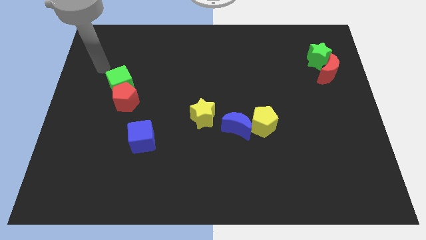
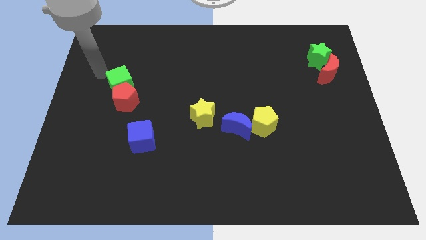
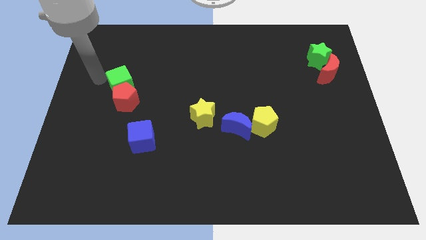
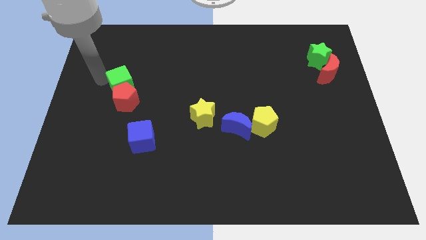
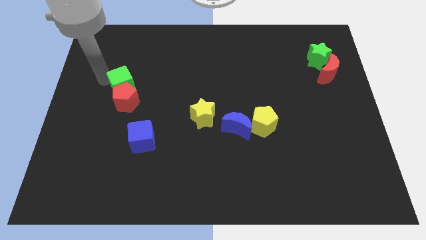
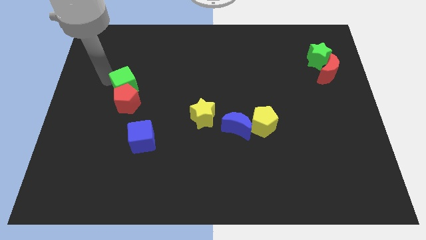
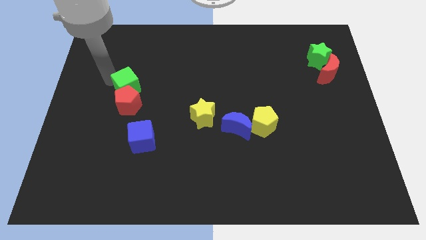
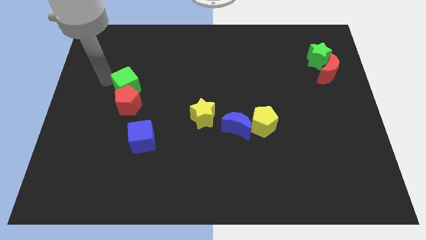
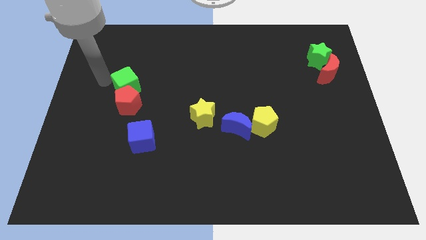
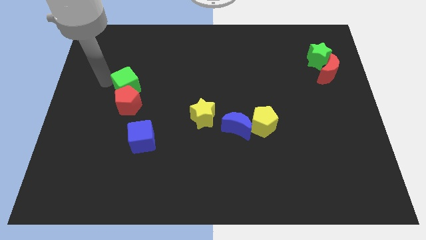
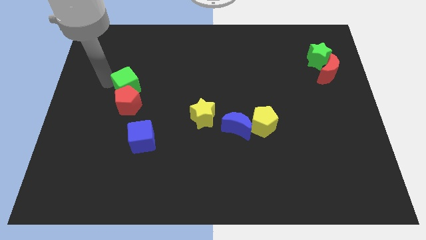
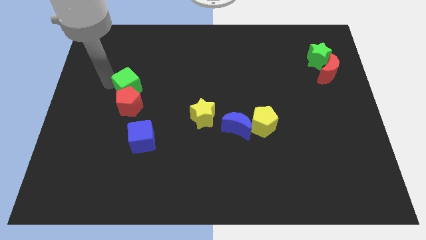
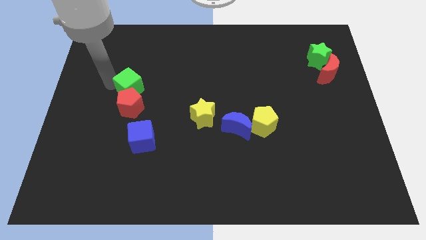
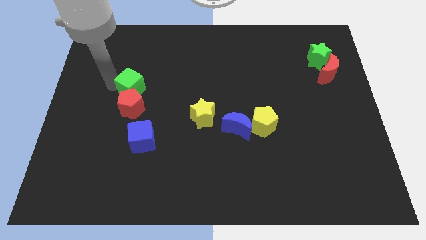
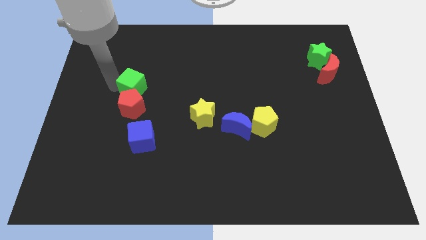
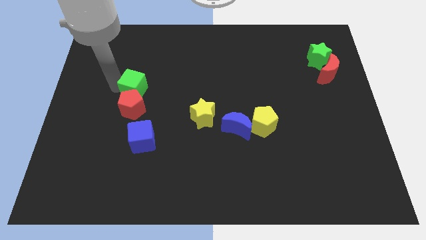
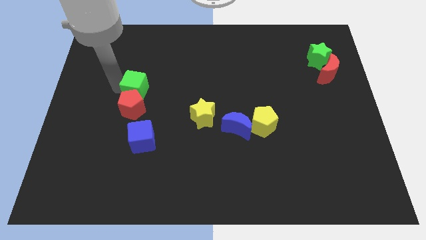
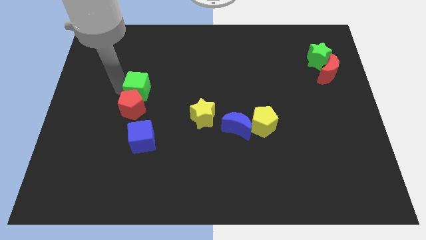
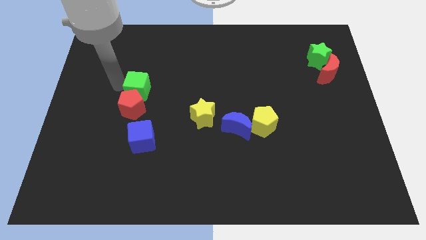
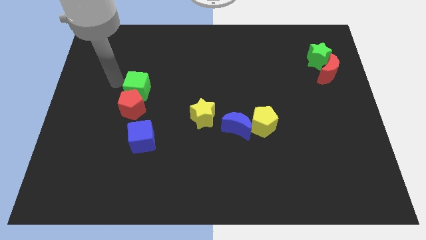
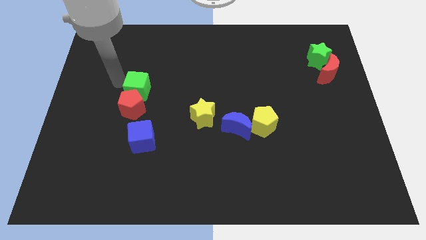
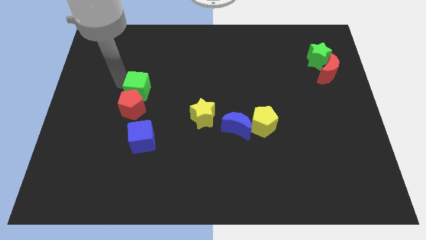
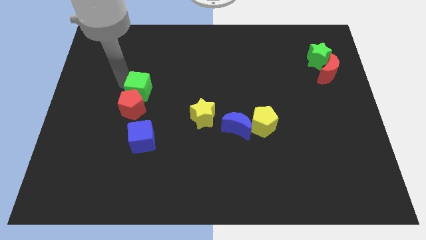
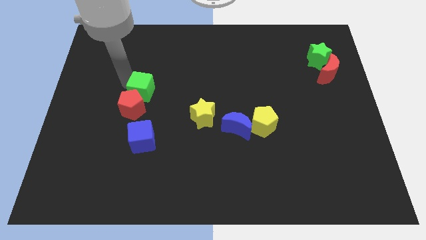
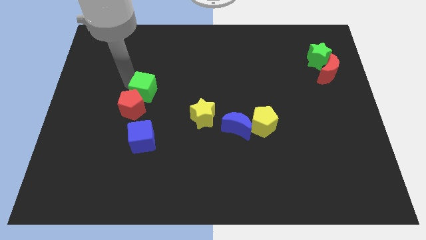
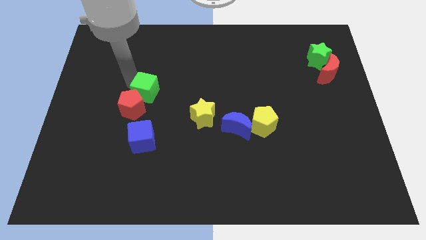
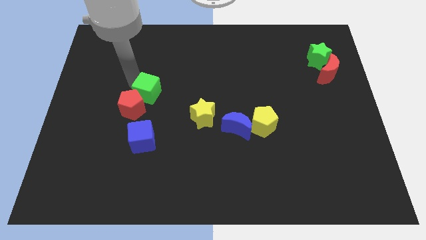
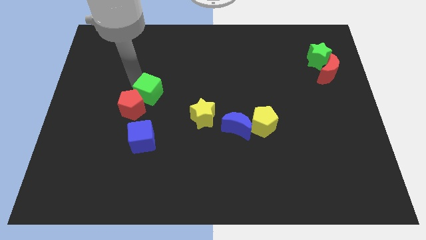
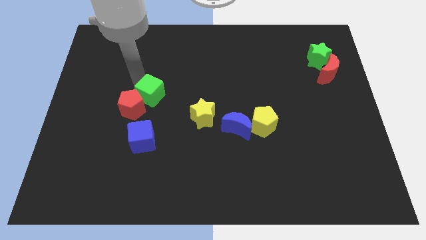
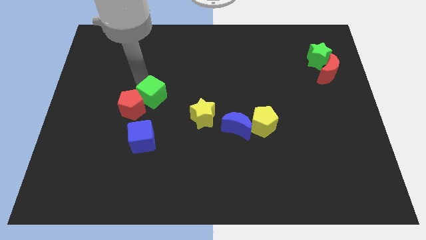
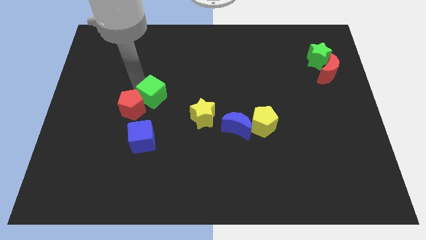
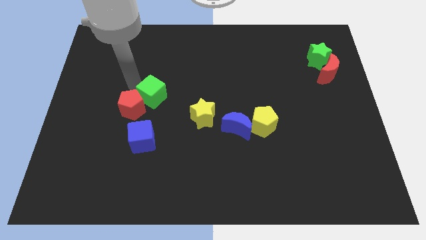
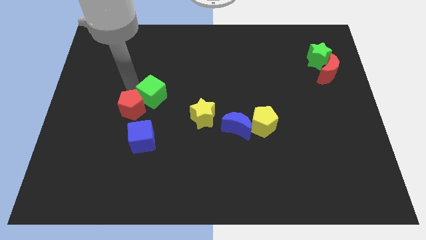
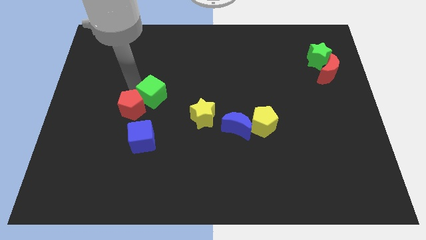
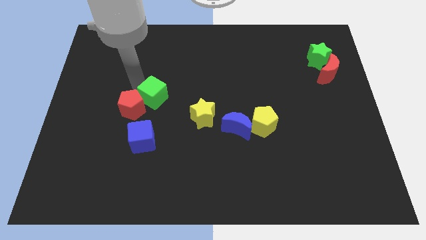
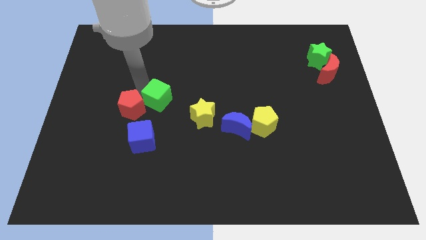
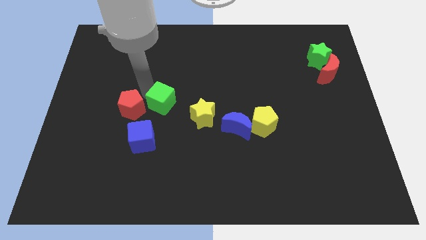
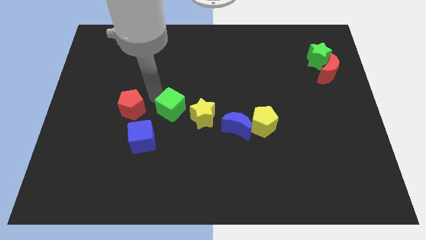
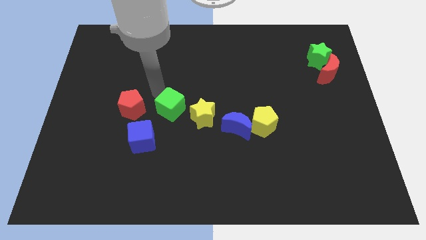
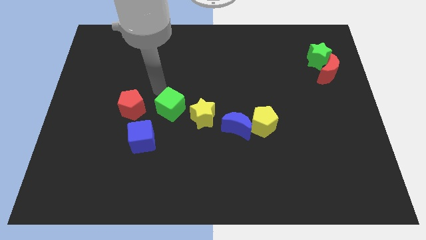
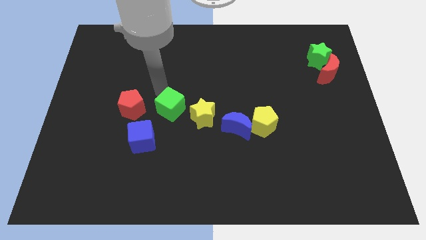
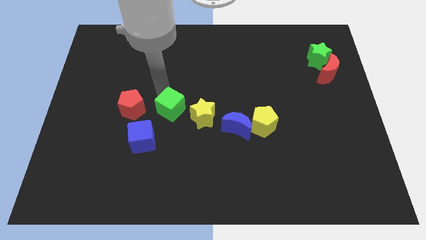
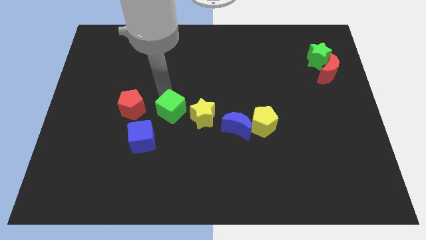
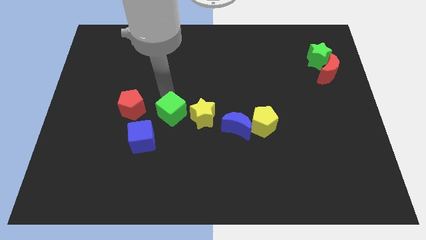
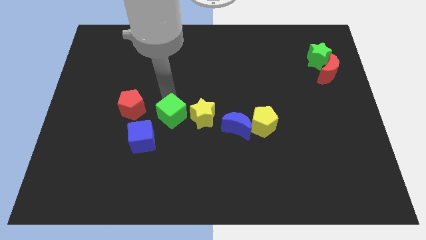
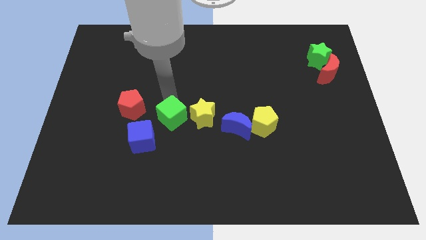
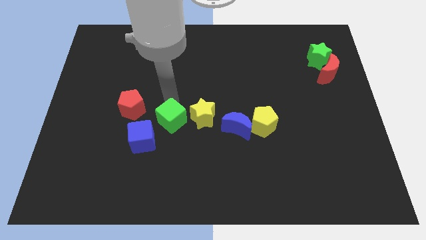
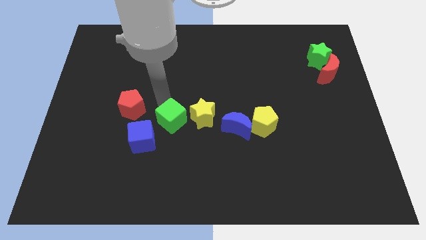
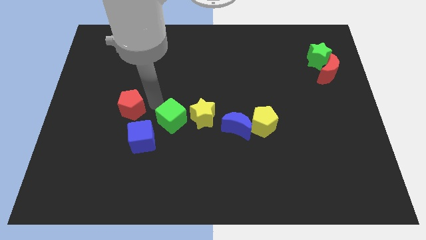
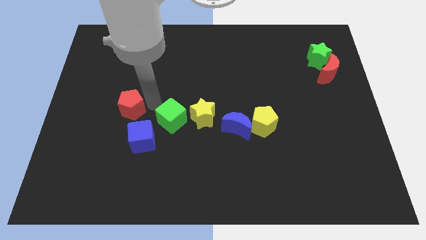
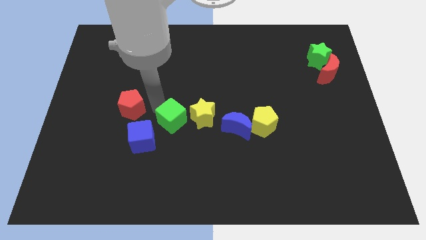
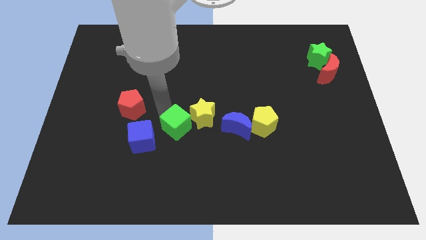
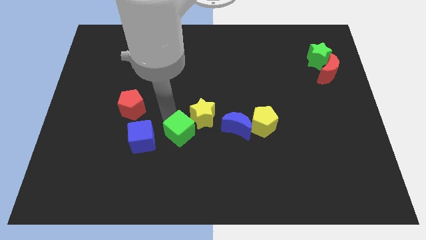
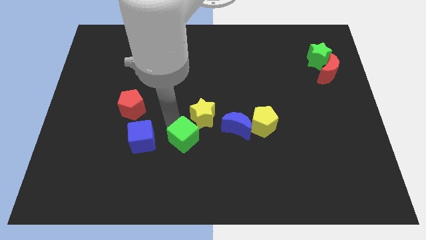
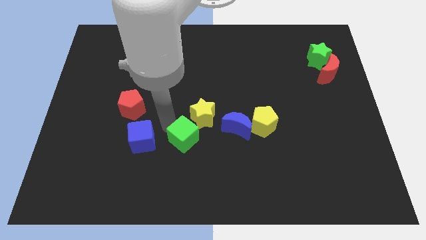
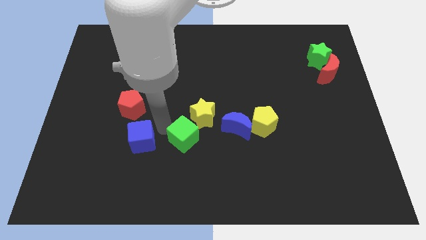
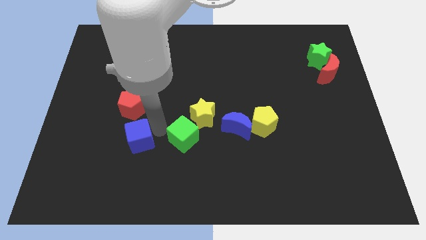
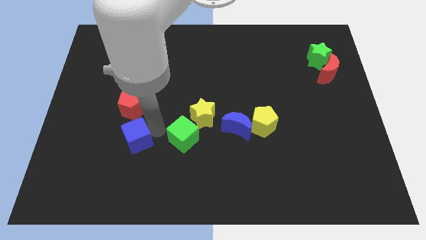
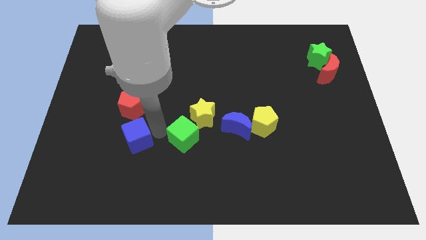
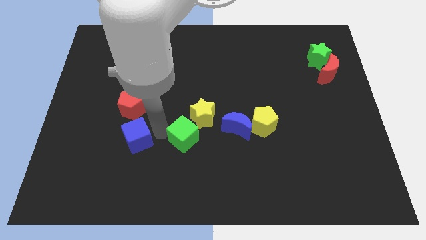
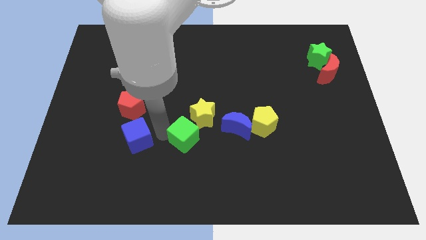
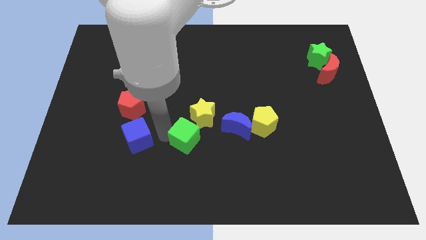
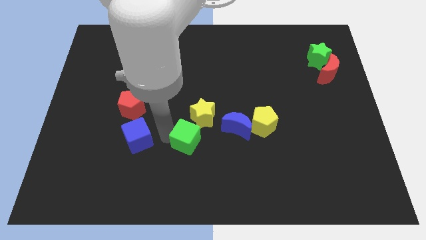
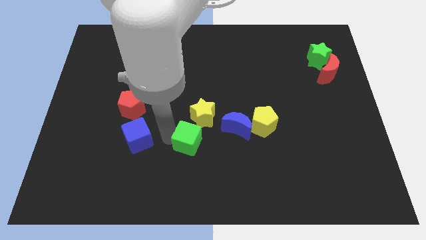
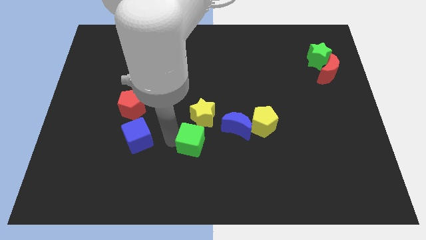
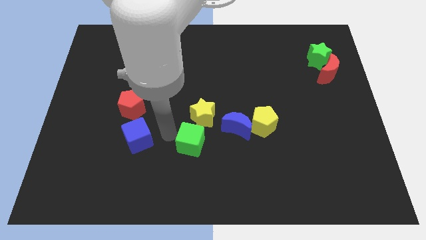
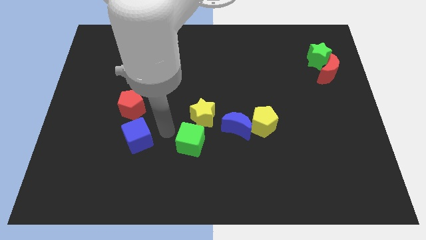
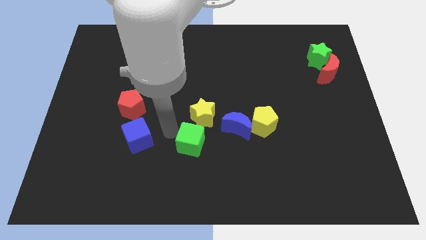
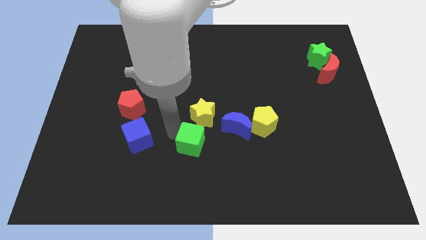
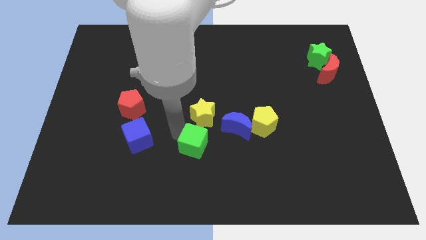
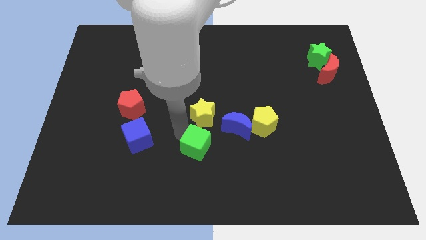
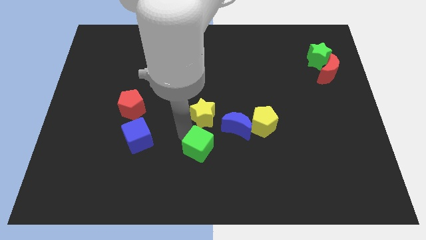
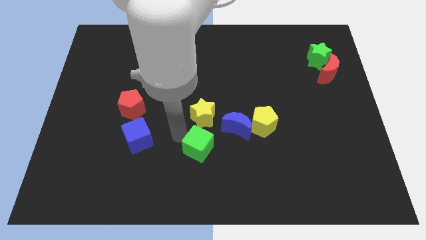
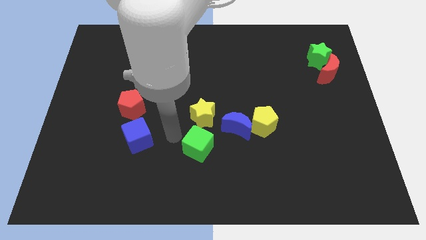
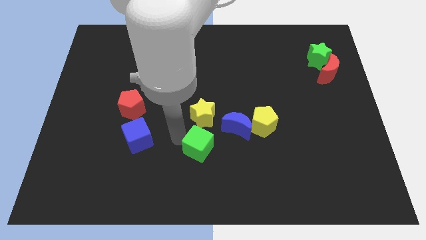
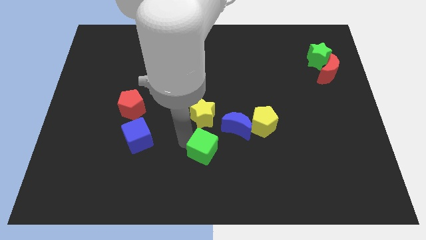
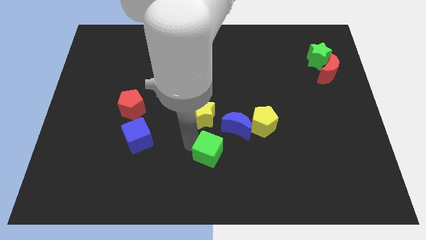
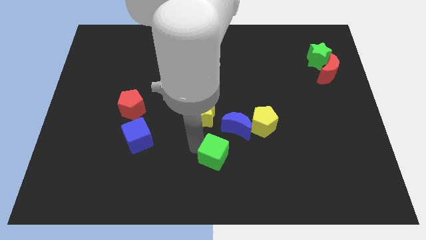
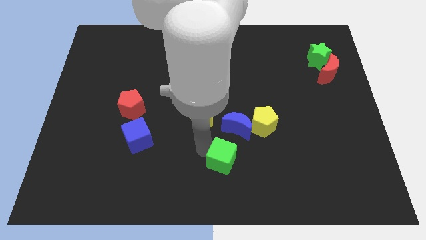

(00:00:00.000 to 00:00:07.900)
push the green cube to the bottom of the blue moon
